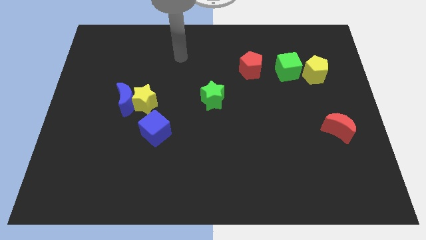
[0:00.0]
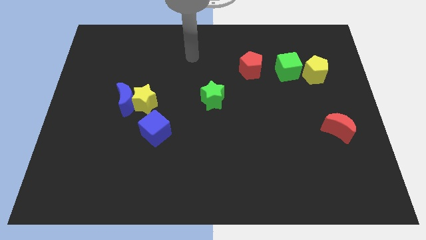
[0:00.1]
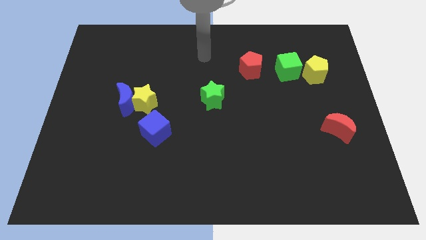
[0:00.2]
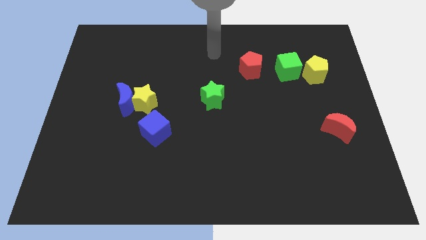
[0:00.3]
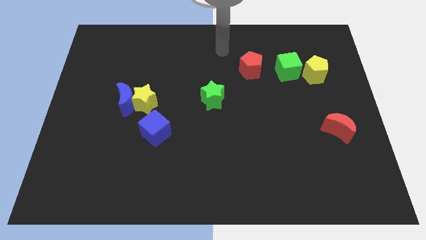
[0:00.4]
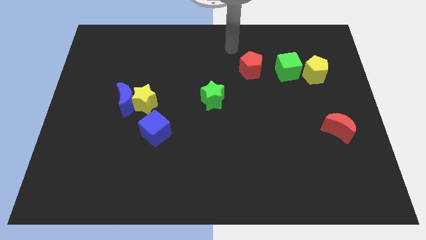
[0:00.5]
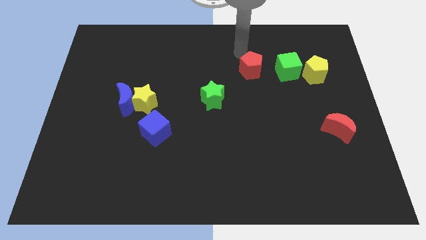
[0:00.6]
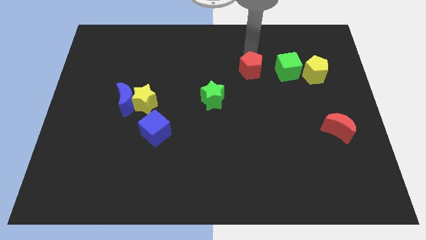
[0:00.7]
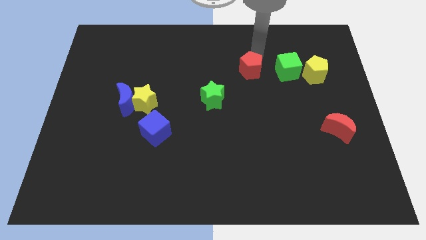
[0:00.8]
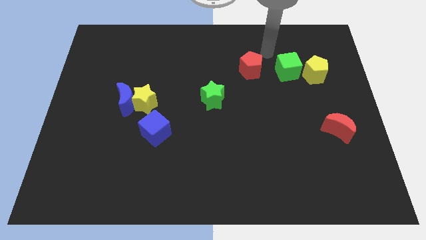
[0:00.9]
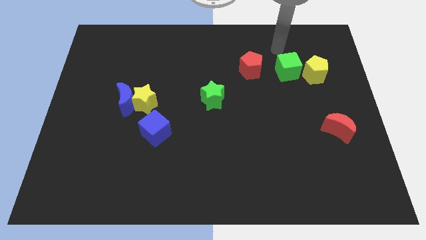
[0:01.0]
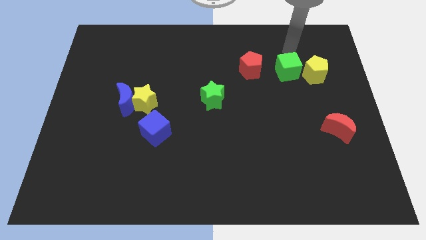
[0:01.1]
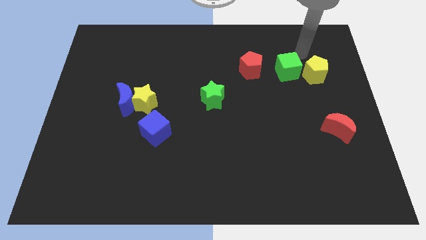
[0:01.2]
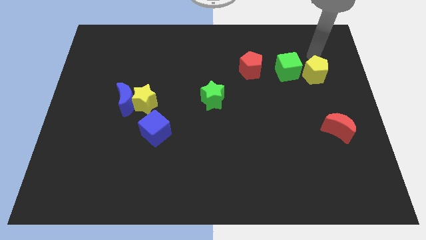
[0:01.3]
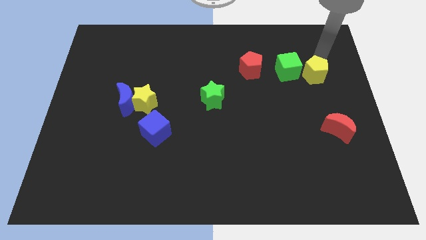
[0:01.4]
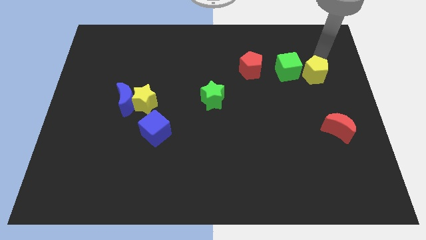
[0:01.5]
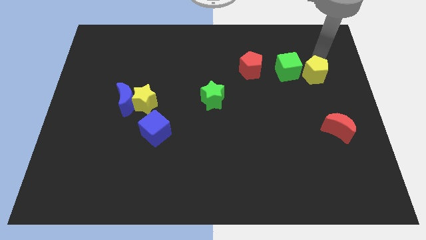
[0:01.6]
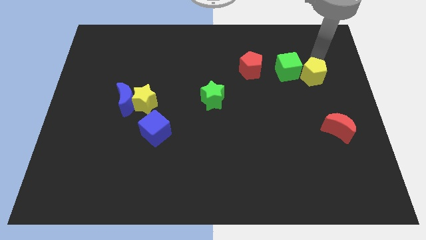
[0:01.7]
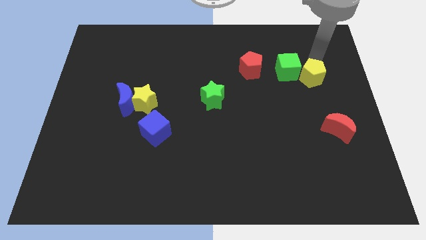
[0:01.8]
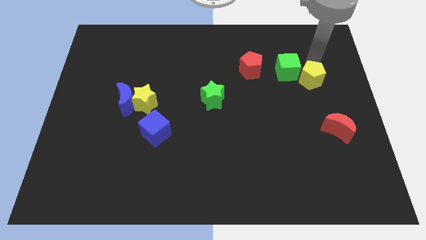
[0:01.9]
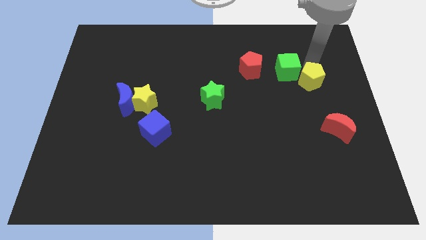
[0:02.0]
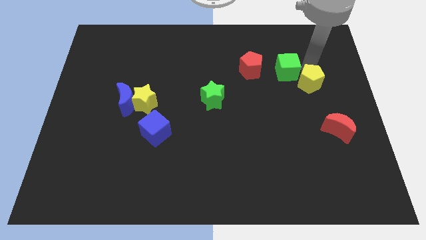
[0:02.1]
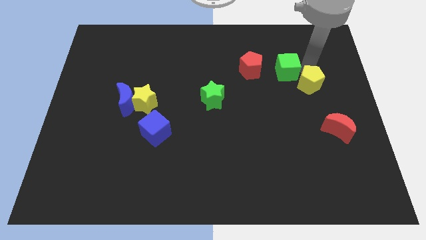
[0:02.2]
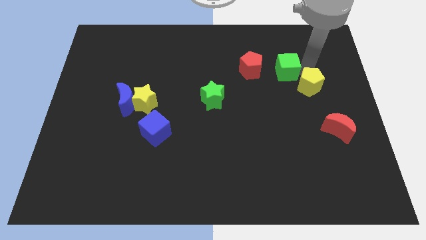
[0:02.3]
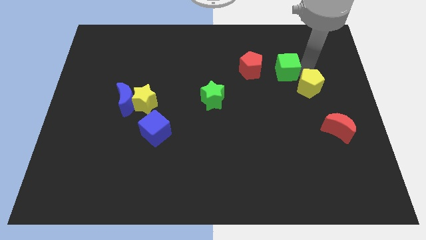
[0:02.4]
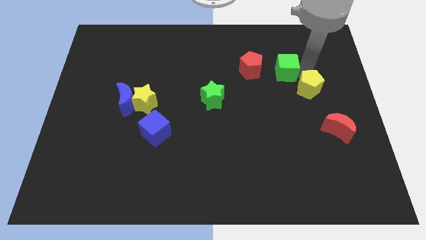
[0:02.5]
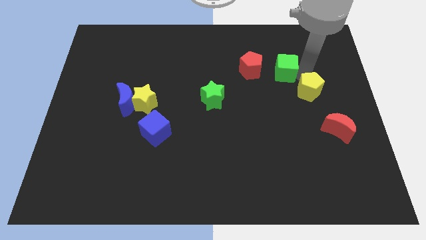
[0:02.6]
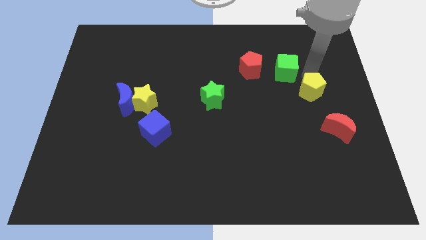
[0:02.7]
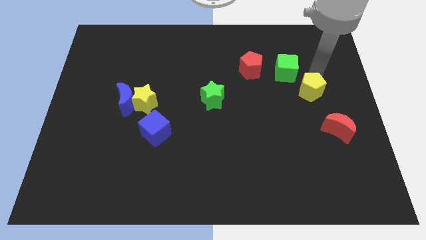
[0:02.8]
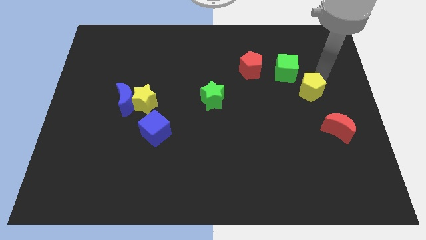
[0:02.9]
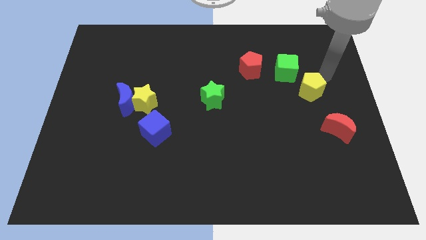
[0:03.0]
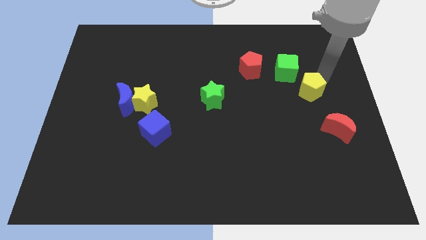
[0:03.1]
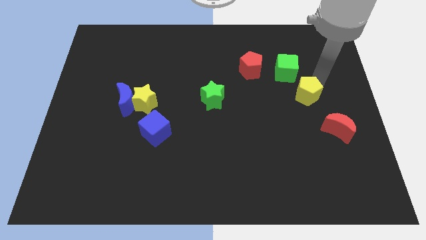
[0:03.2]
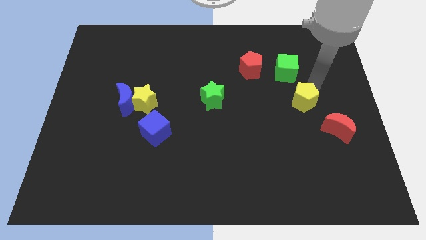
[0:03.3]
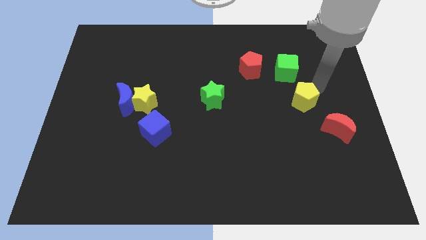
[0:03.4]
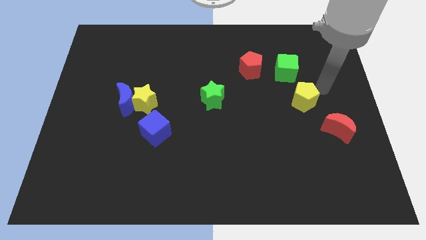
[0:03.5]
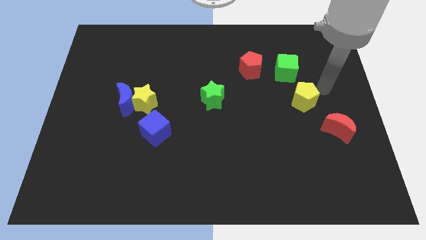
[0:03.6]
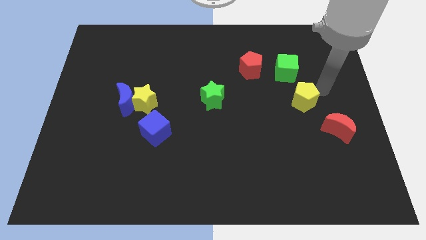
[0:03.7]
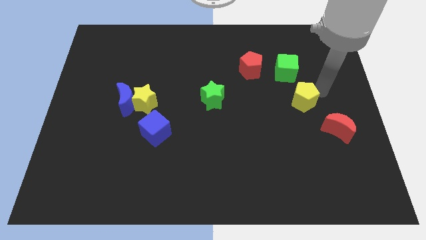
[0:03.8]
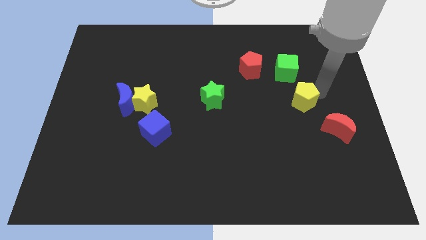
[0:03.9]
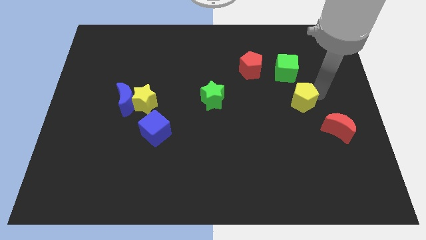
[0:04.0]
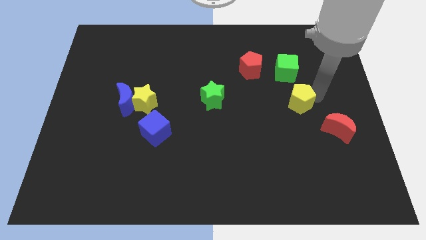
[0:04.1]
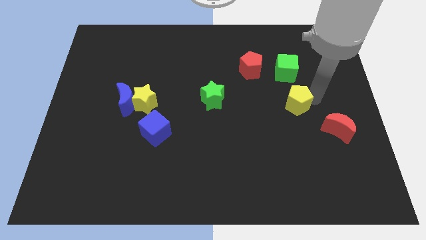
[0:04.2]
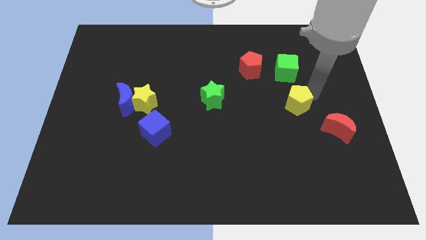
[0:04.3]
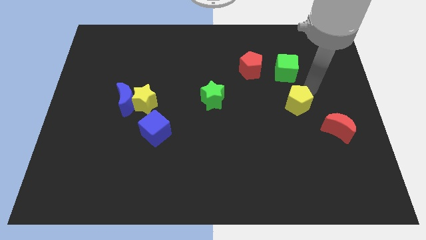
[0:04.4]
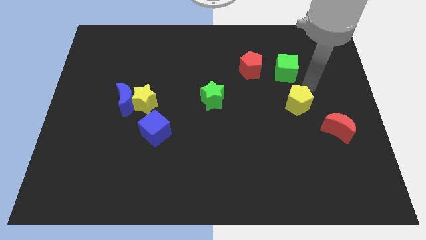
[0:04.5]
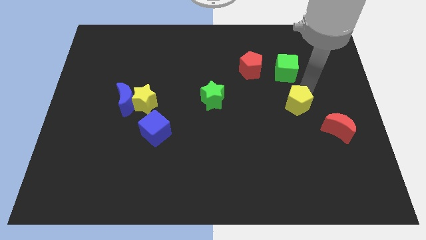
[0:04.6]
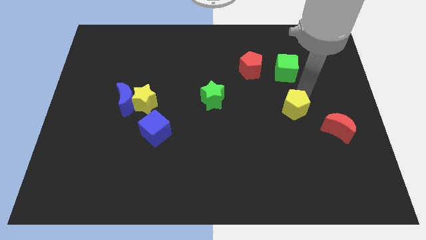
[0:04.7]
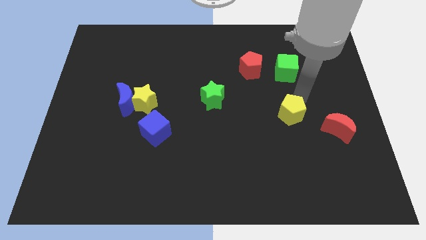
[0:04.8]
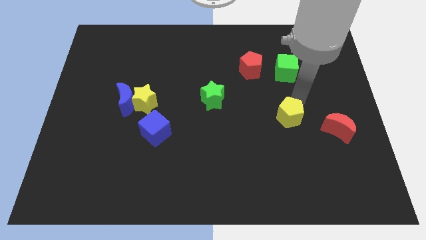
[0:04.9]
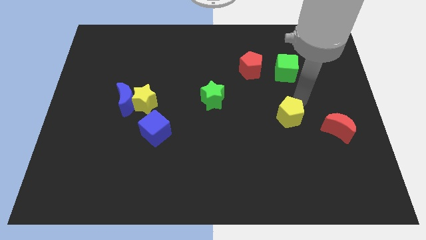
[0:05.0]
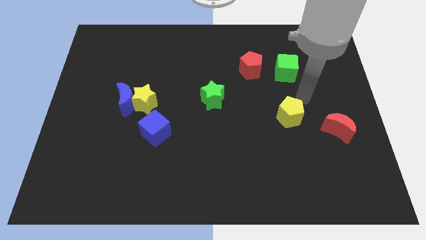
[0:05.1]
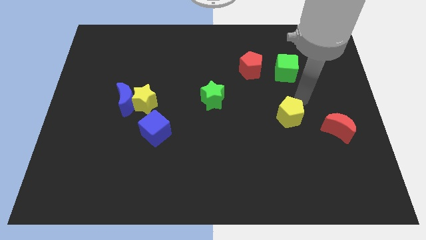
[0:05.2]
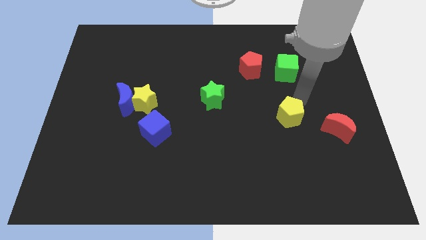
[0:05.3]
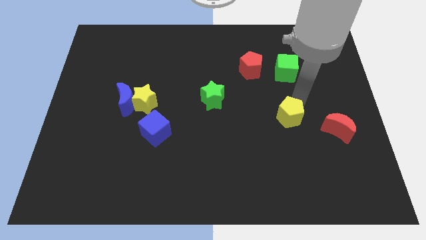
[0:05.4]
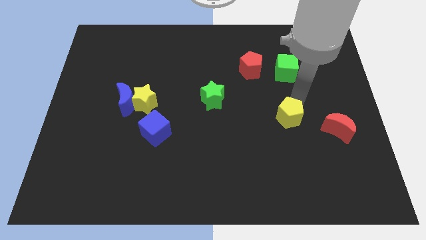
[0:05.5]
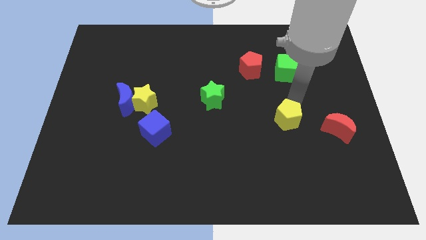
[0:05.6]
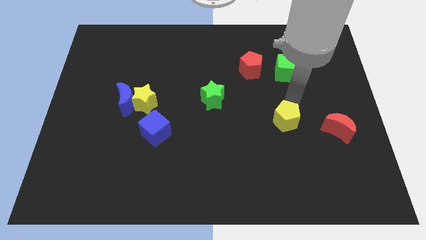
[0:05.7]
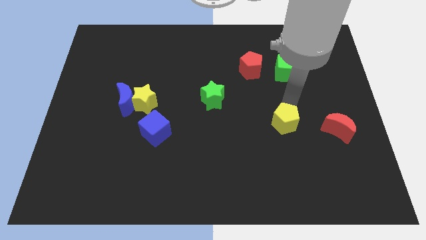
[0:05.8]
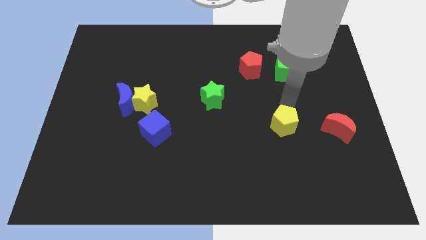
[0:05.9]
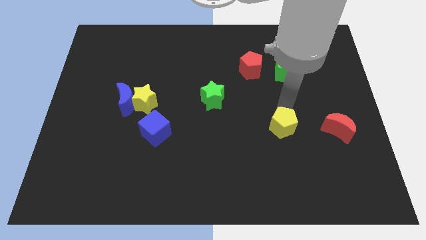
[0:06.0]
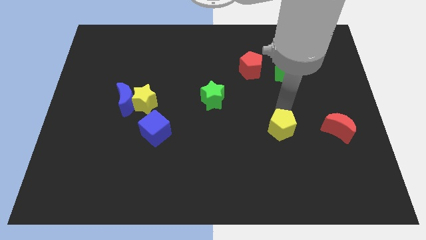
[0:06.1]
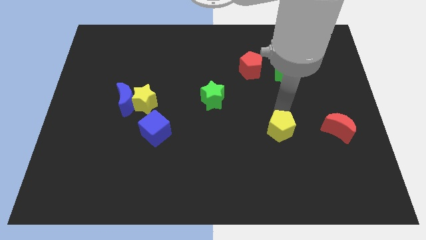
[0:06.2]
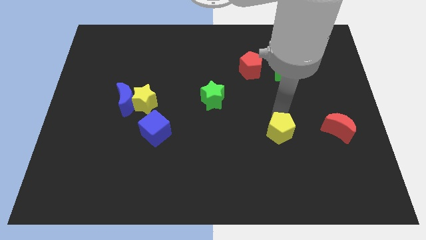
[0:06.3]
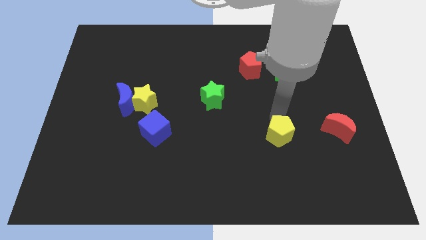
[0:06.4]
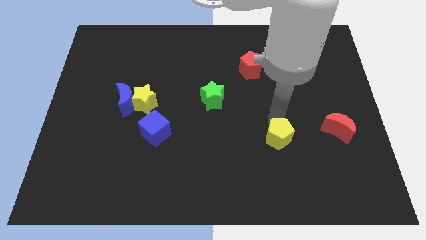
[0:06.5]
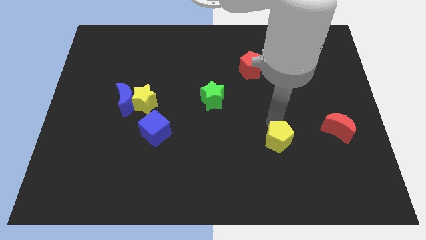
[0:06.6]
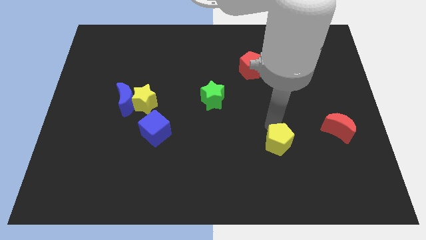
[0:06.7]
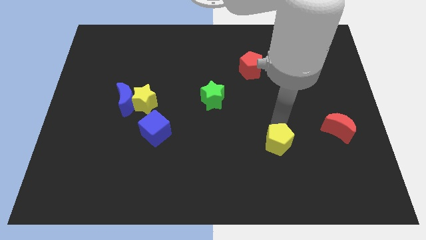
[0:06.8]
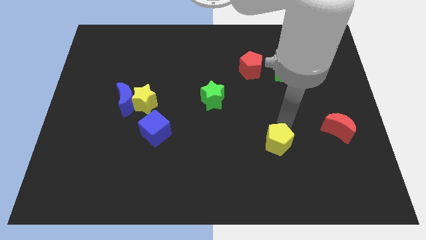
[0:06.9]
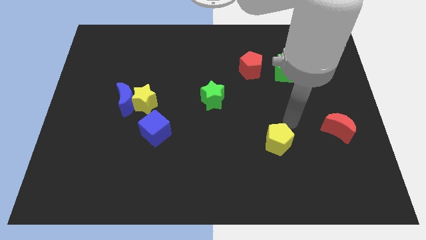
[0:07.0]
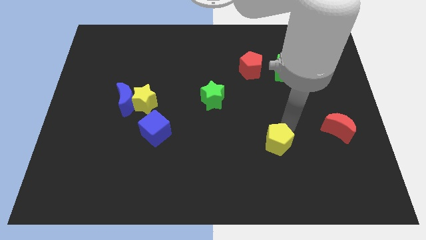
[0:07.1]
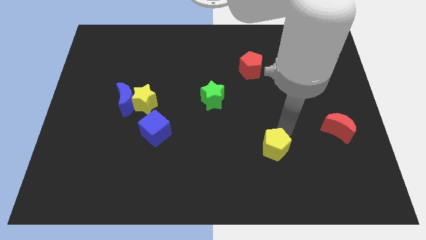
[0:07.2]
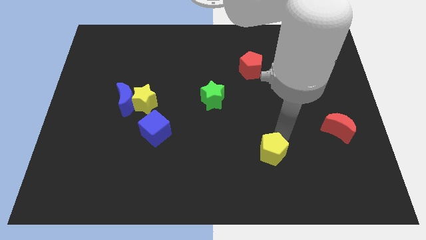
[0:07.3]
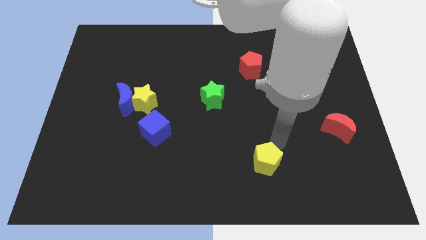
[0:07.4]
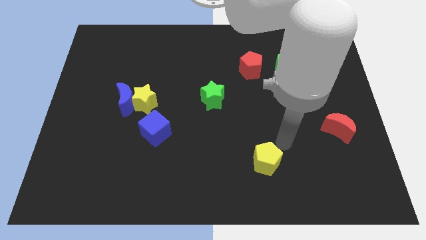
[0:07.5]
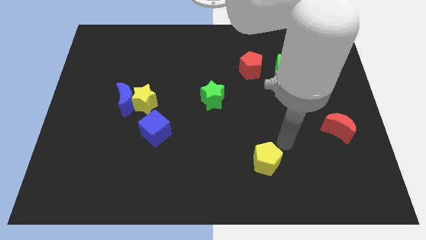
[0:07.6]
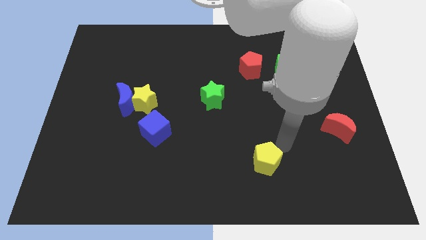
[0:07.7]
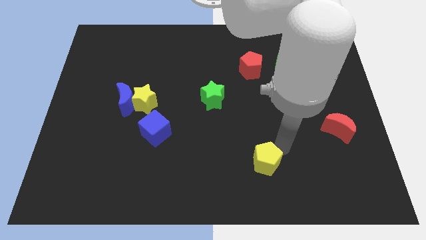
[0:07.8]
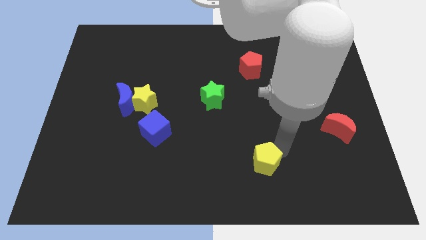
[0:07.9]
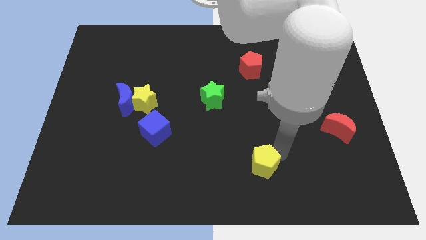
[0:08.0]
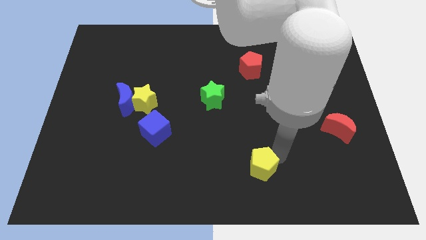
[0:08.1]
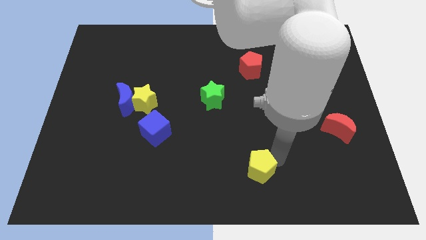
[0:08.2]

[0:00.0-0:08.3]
put the yellow pentagon to the bottom side
